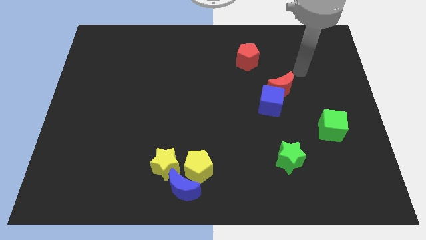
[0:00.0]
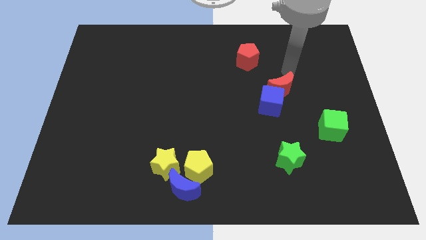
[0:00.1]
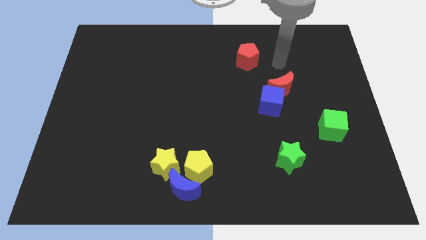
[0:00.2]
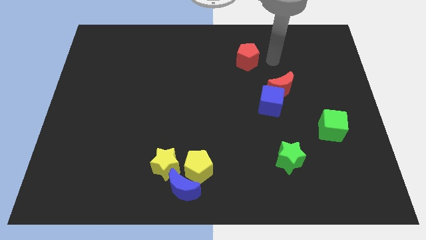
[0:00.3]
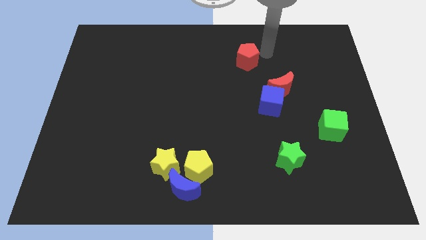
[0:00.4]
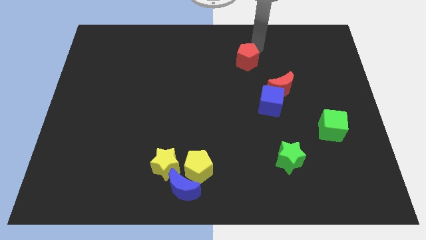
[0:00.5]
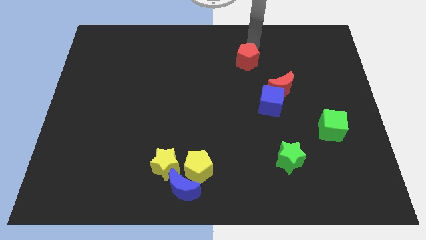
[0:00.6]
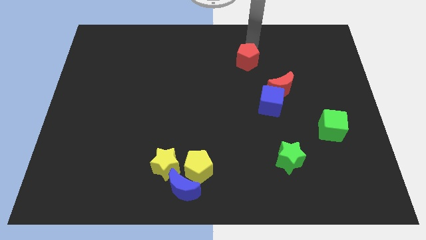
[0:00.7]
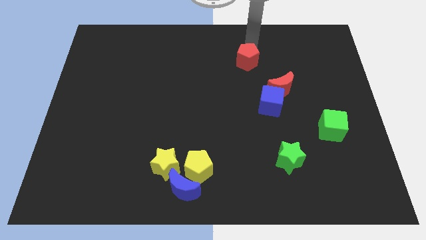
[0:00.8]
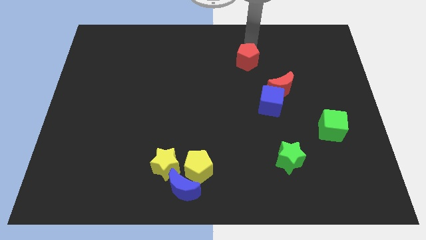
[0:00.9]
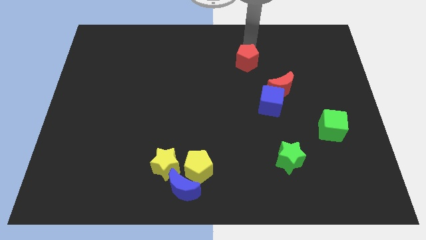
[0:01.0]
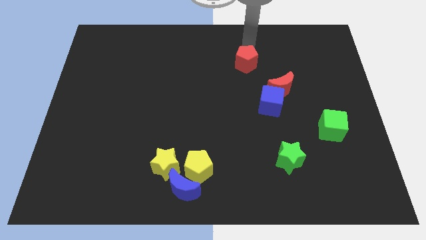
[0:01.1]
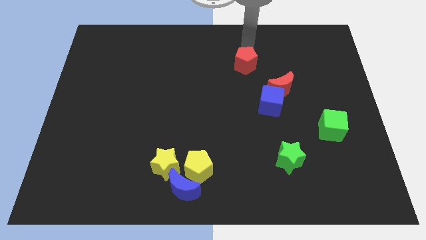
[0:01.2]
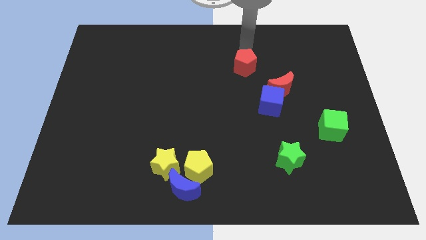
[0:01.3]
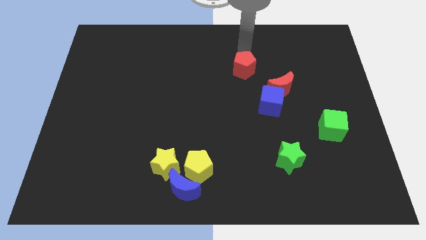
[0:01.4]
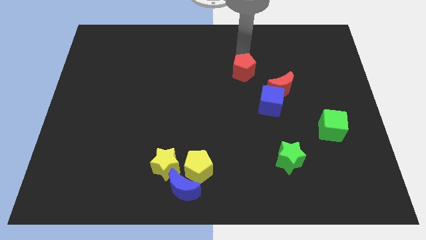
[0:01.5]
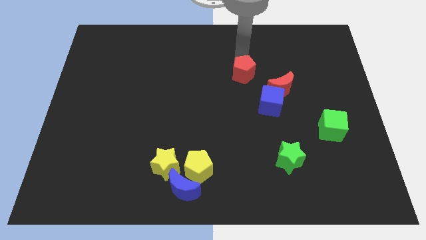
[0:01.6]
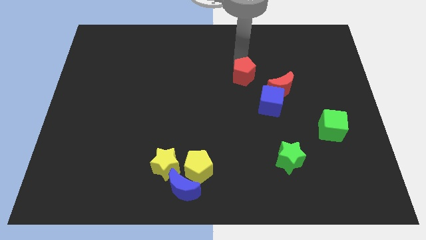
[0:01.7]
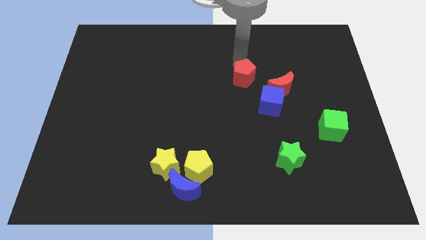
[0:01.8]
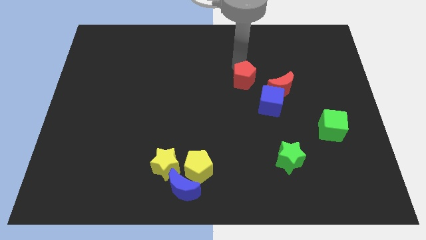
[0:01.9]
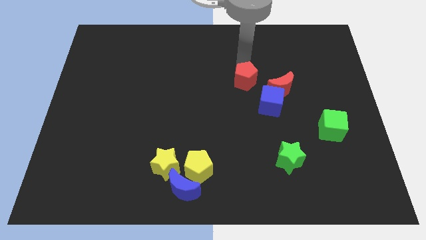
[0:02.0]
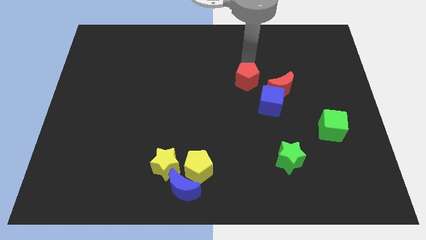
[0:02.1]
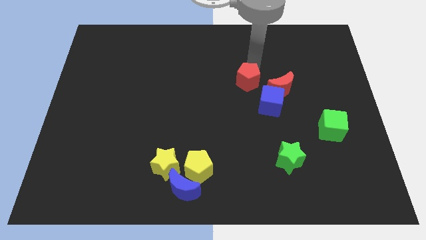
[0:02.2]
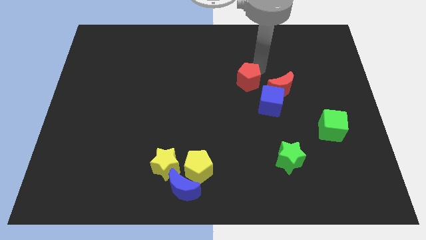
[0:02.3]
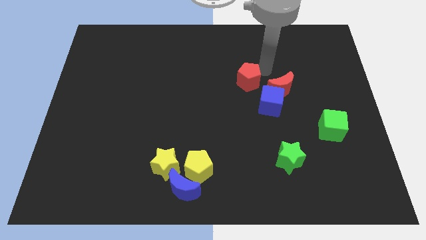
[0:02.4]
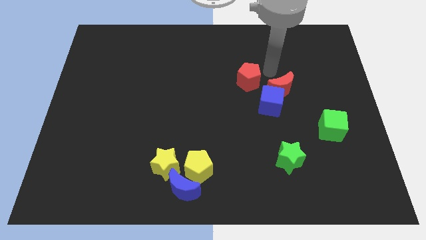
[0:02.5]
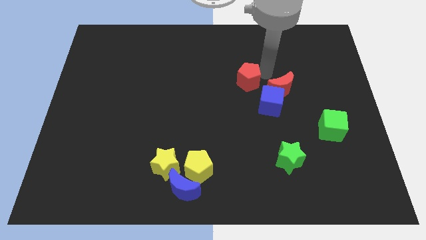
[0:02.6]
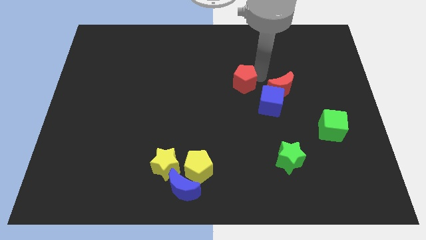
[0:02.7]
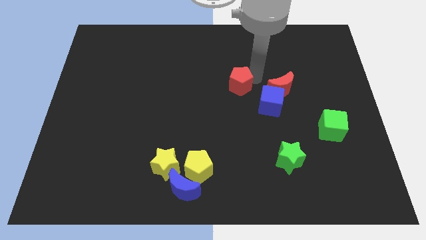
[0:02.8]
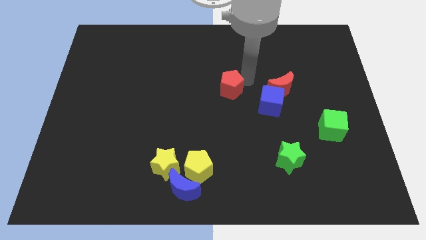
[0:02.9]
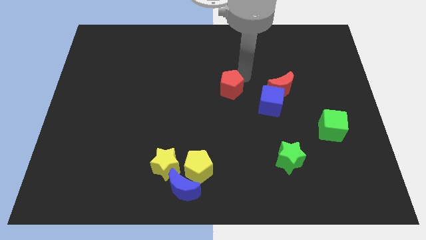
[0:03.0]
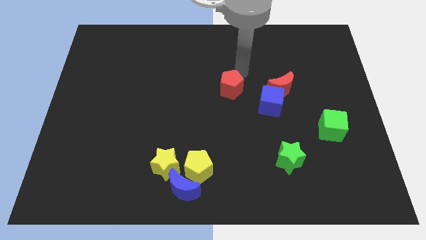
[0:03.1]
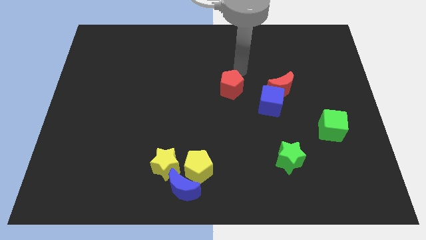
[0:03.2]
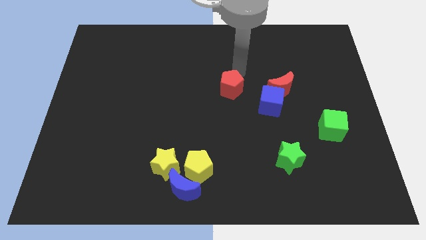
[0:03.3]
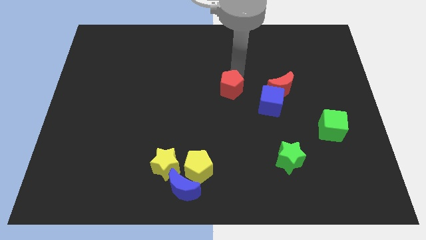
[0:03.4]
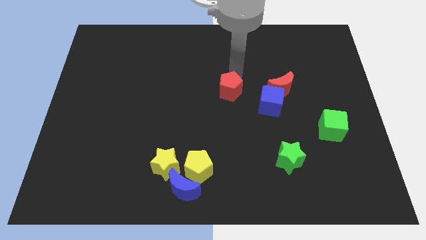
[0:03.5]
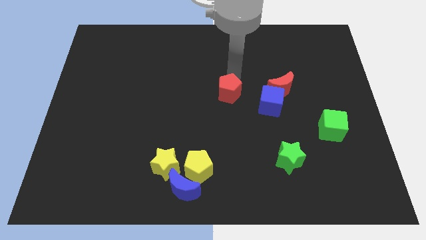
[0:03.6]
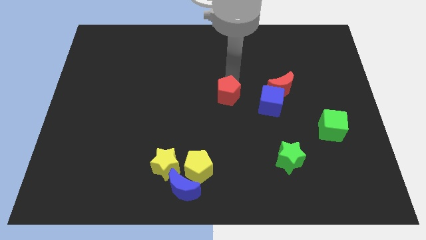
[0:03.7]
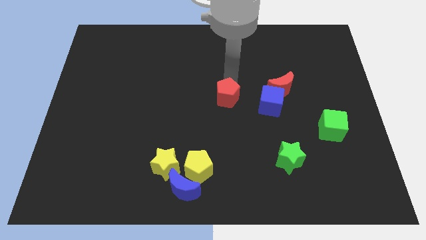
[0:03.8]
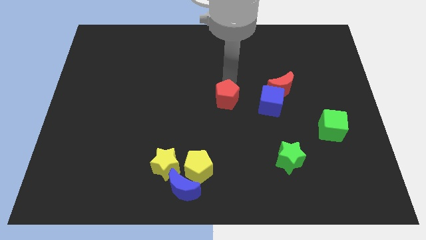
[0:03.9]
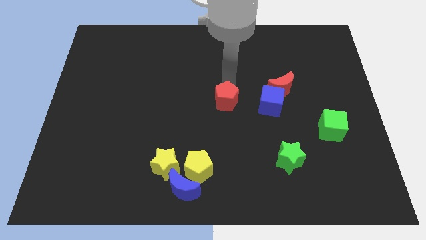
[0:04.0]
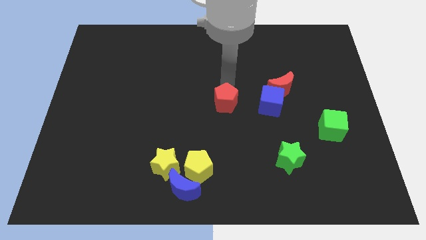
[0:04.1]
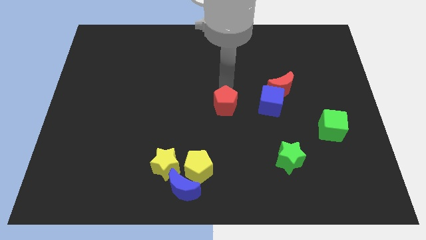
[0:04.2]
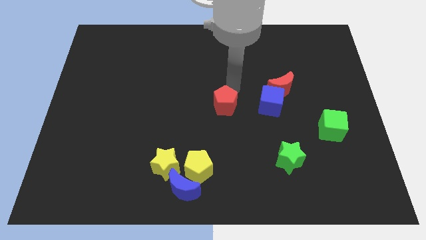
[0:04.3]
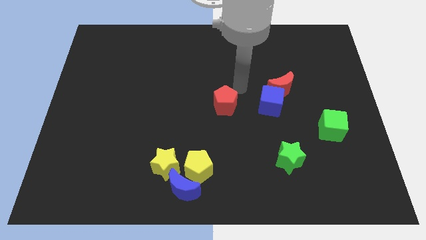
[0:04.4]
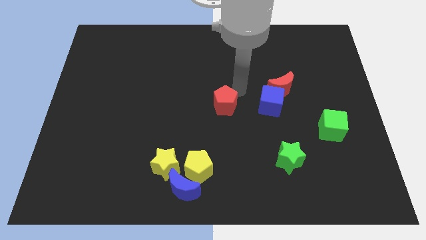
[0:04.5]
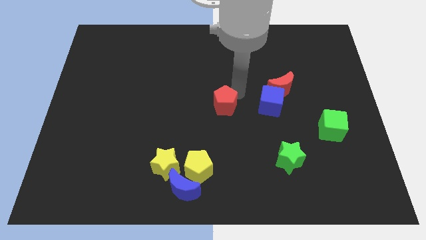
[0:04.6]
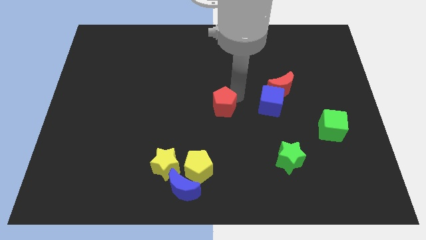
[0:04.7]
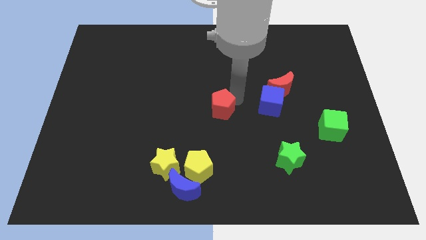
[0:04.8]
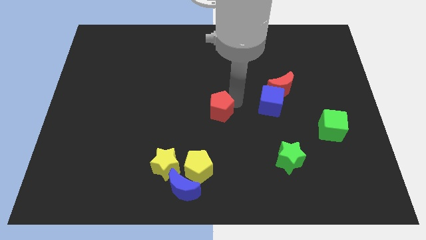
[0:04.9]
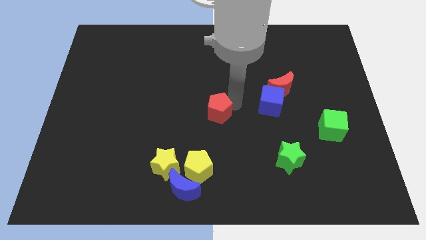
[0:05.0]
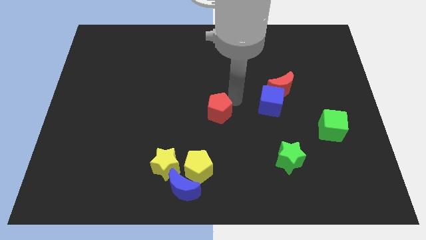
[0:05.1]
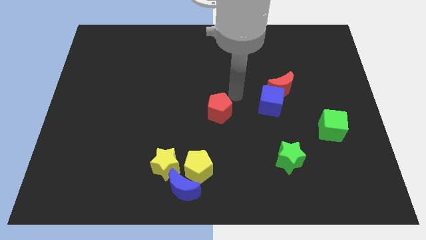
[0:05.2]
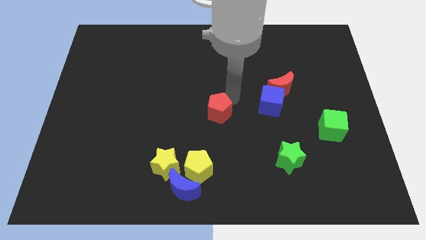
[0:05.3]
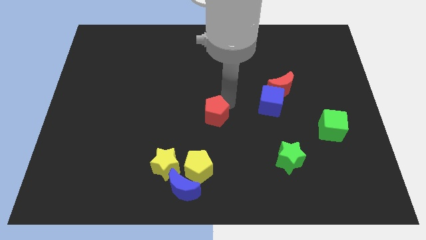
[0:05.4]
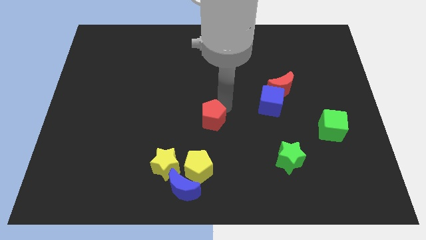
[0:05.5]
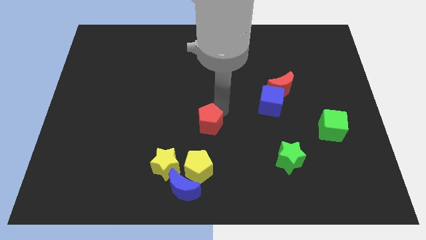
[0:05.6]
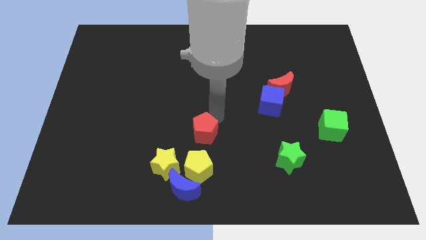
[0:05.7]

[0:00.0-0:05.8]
move the red pentagon above the blue moon

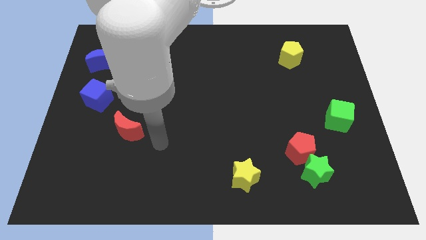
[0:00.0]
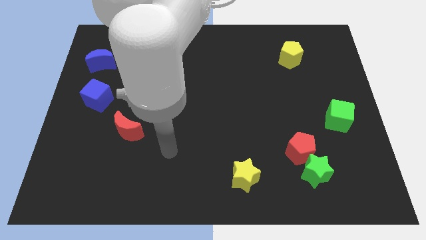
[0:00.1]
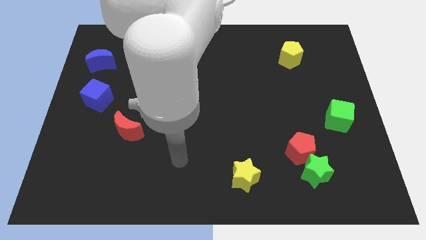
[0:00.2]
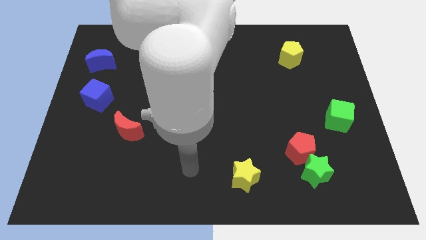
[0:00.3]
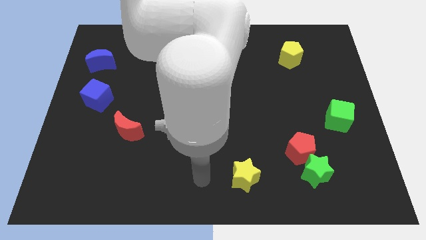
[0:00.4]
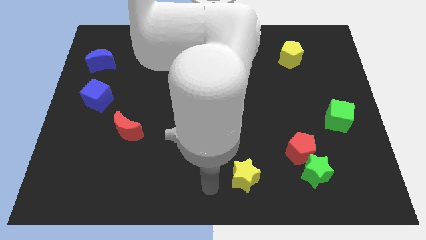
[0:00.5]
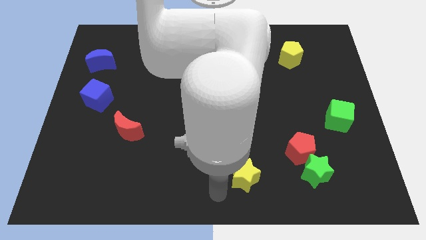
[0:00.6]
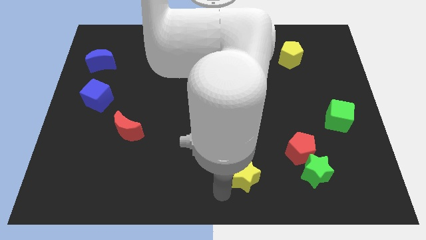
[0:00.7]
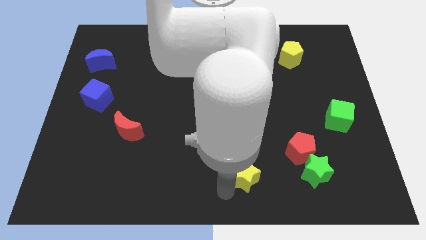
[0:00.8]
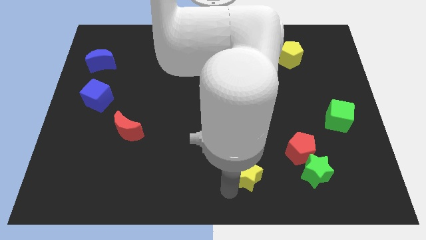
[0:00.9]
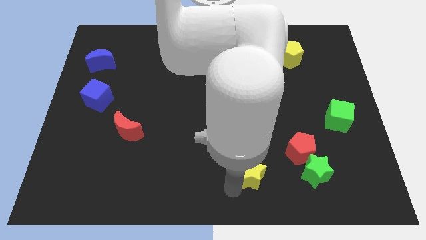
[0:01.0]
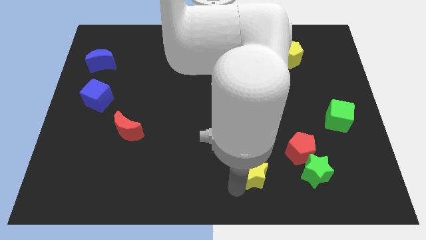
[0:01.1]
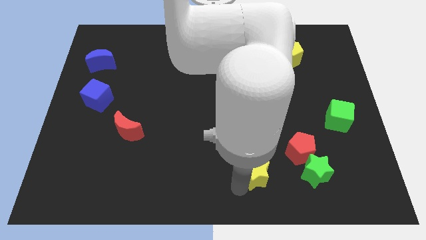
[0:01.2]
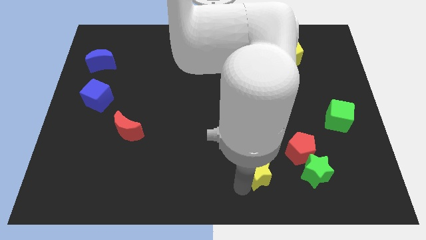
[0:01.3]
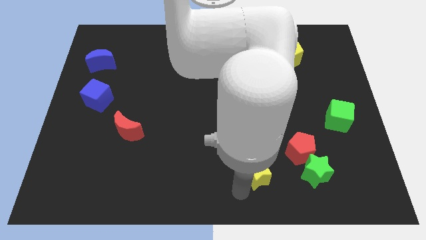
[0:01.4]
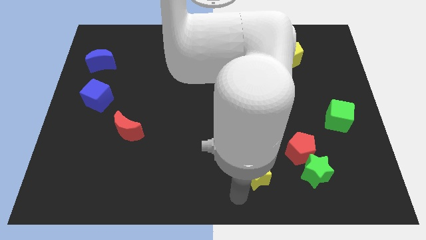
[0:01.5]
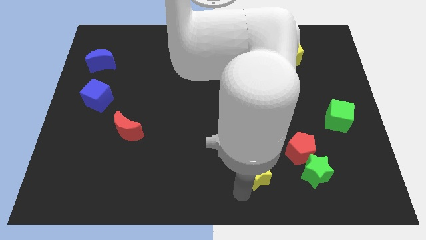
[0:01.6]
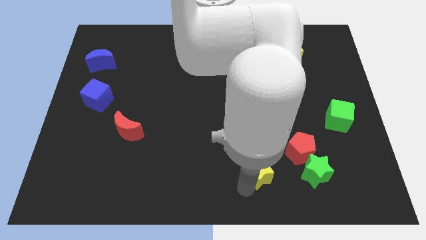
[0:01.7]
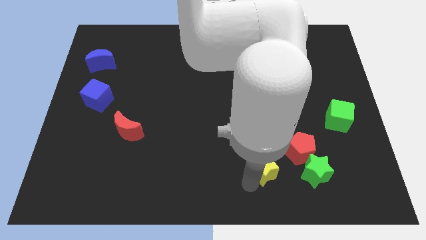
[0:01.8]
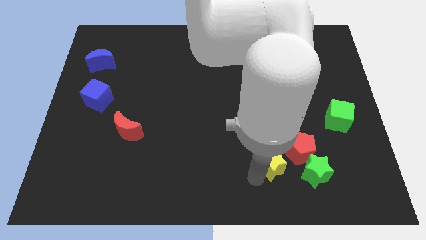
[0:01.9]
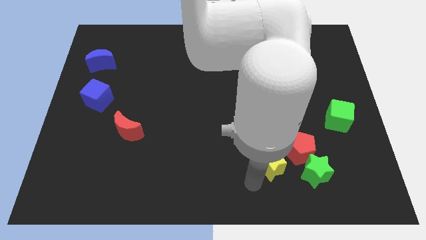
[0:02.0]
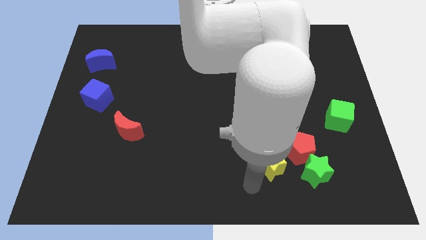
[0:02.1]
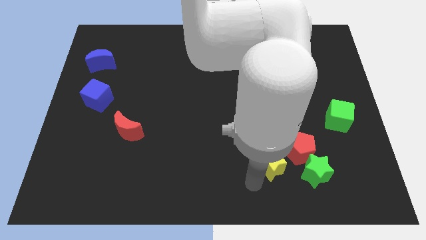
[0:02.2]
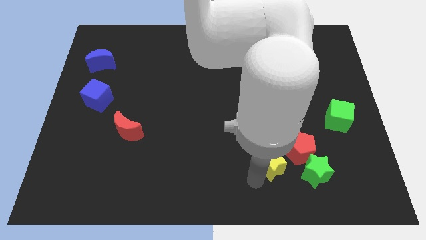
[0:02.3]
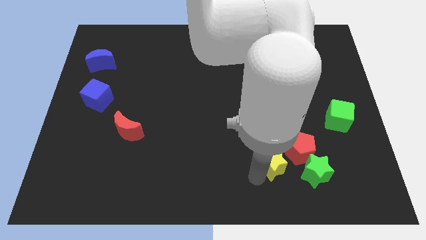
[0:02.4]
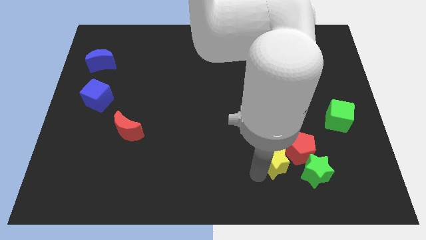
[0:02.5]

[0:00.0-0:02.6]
put the yellow star to the top left of the green star
